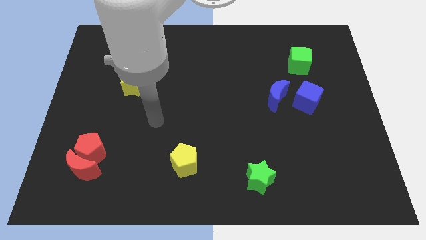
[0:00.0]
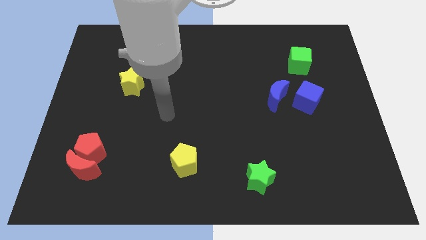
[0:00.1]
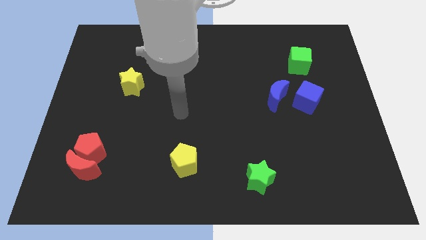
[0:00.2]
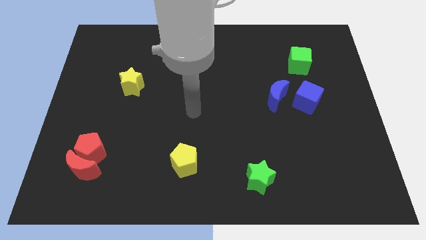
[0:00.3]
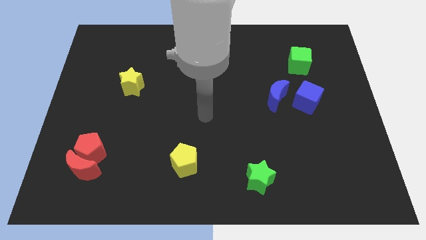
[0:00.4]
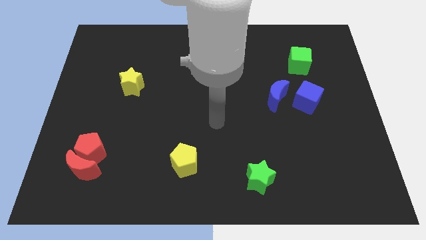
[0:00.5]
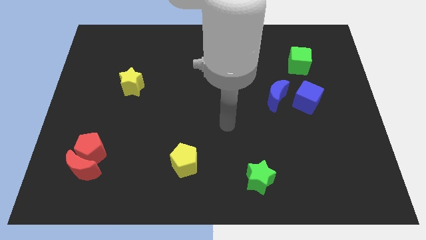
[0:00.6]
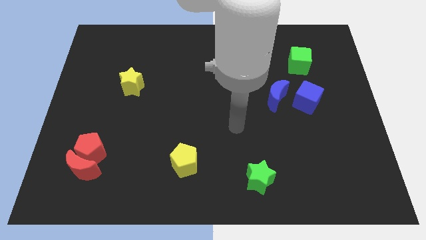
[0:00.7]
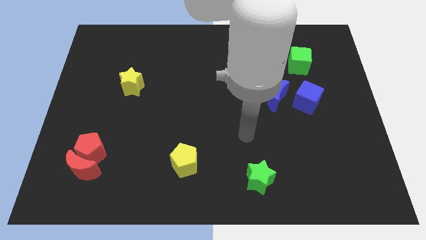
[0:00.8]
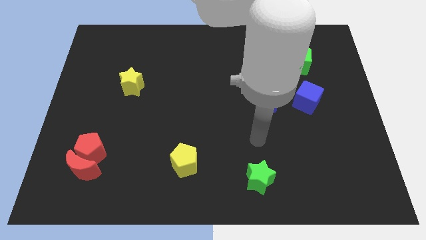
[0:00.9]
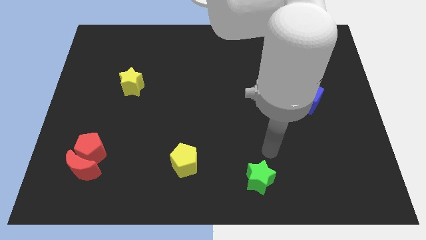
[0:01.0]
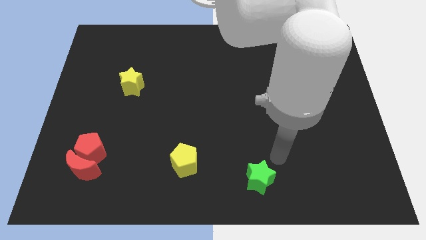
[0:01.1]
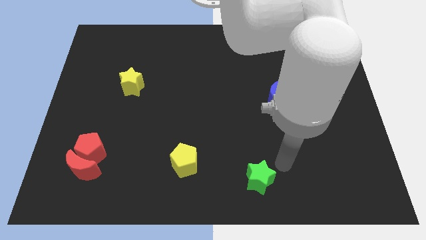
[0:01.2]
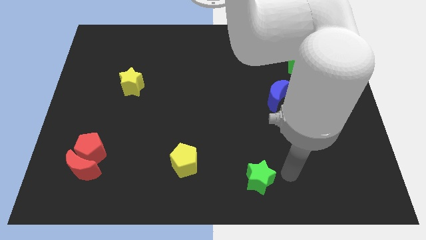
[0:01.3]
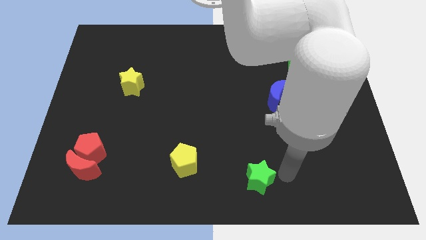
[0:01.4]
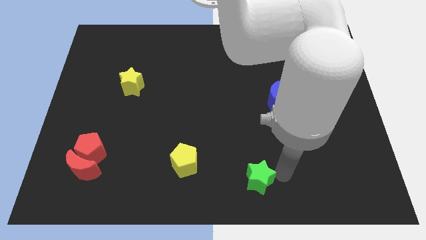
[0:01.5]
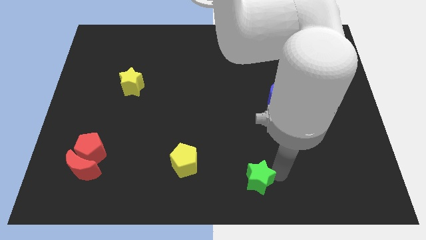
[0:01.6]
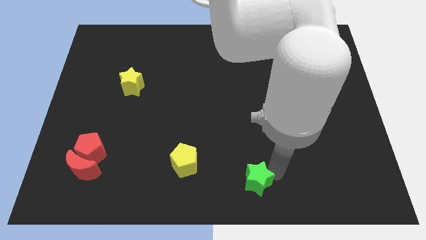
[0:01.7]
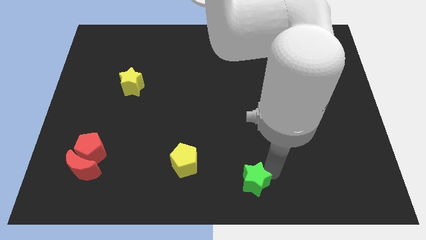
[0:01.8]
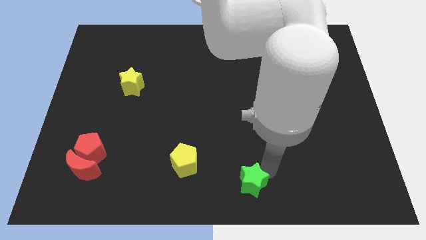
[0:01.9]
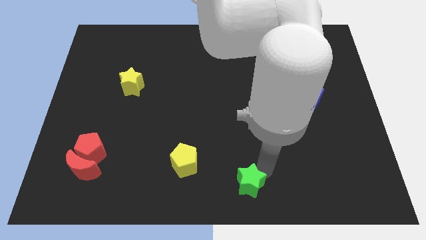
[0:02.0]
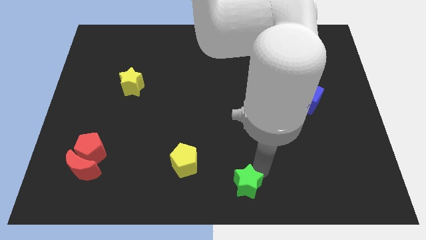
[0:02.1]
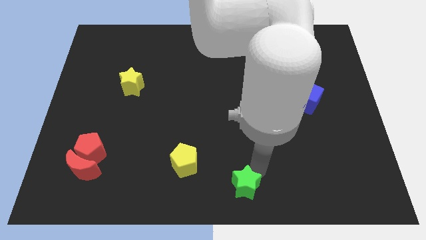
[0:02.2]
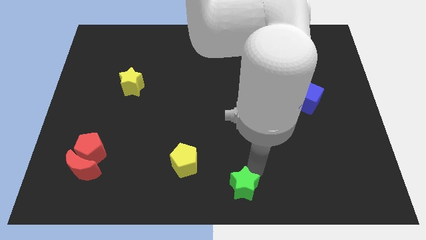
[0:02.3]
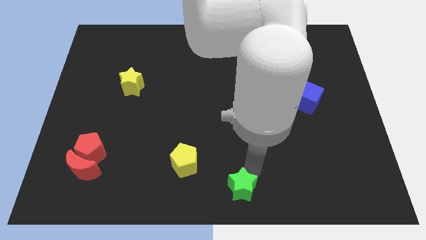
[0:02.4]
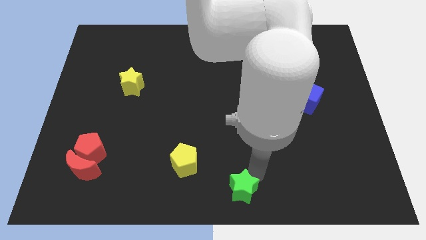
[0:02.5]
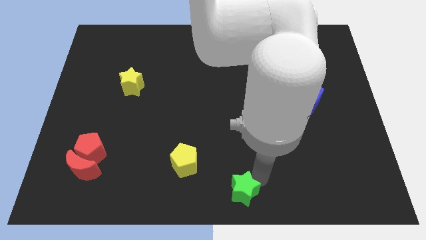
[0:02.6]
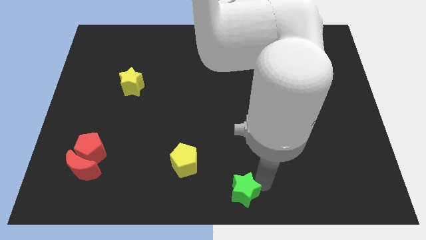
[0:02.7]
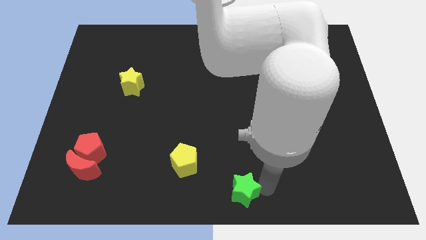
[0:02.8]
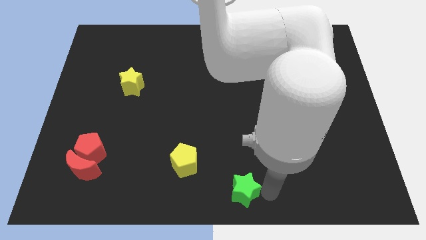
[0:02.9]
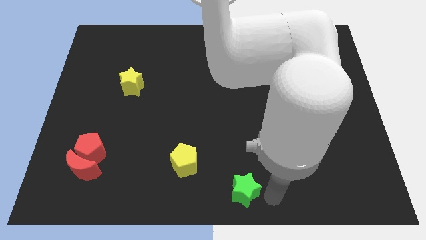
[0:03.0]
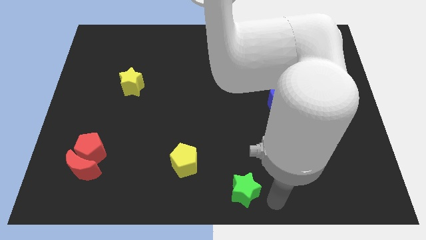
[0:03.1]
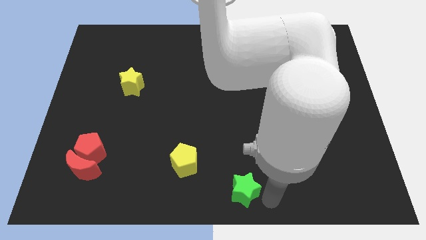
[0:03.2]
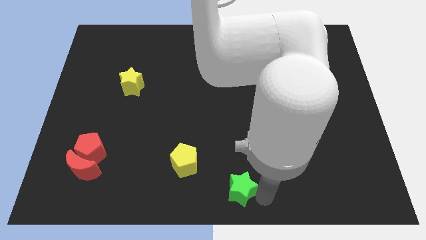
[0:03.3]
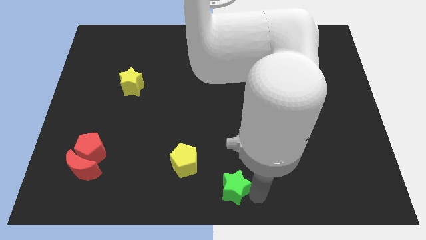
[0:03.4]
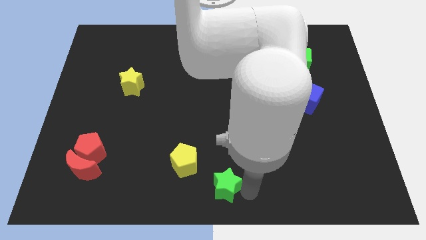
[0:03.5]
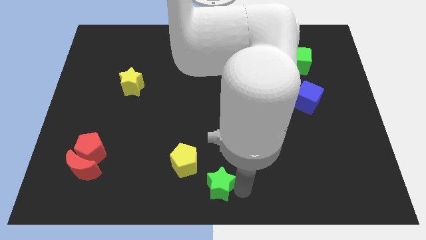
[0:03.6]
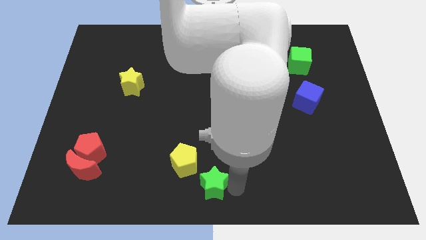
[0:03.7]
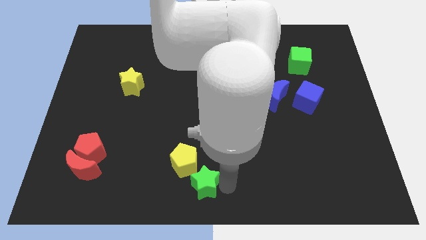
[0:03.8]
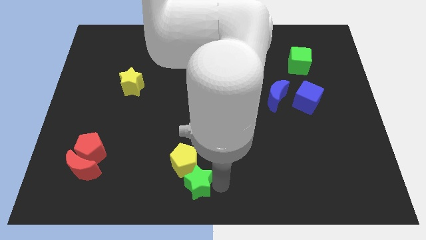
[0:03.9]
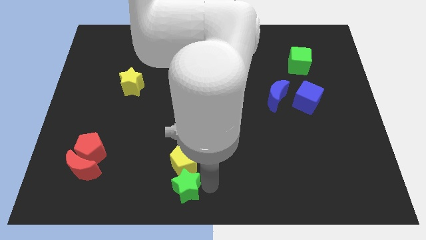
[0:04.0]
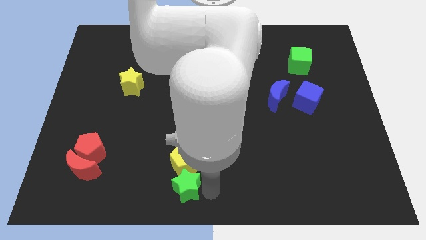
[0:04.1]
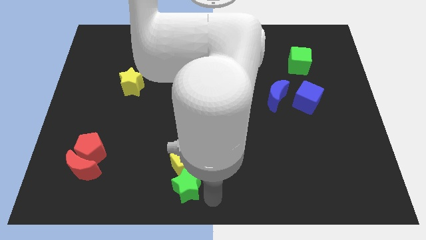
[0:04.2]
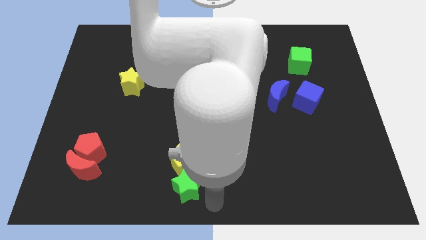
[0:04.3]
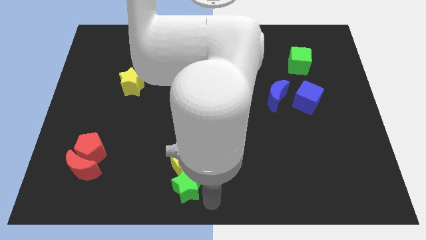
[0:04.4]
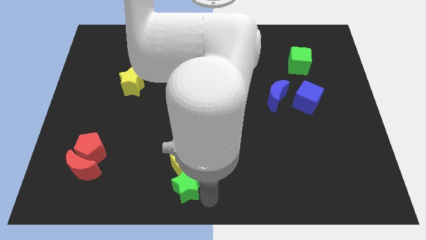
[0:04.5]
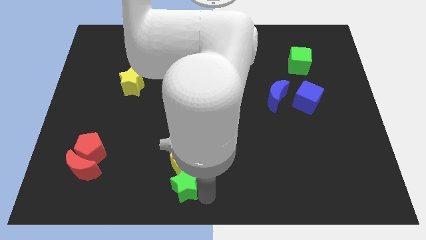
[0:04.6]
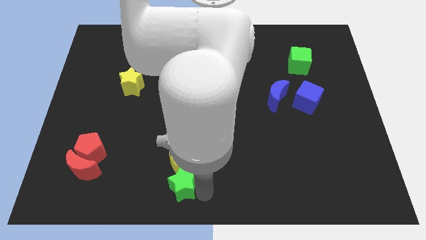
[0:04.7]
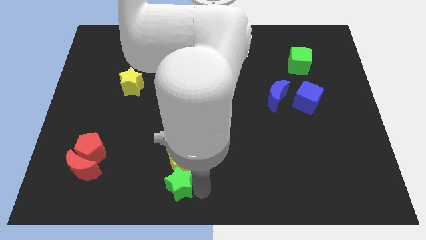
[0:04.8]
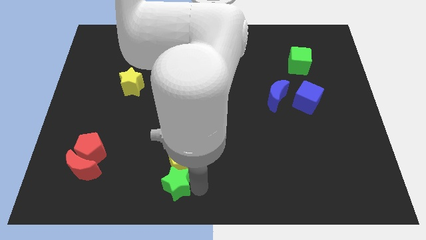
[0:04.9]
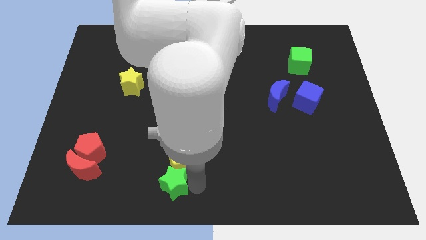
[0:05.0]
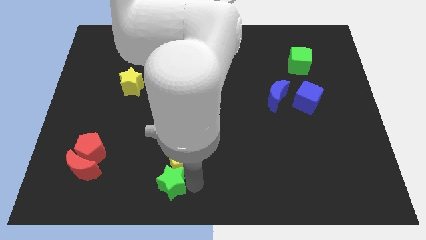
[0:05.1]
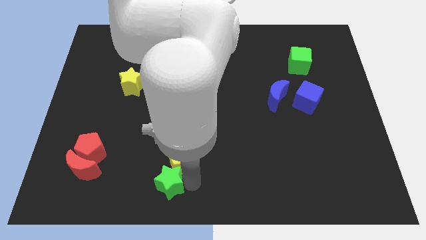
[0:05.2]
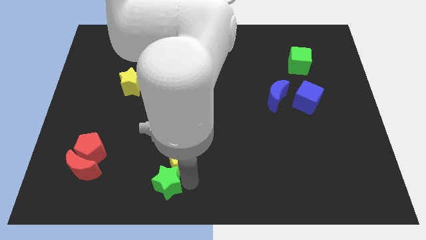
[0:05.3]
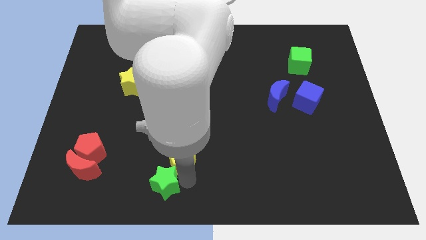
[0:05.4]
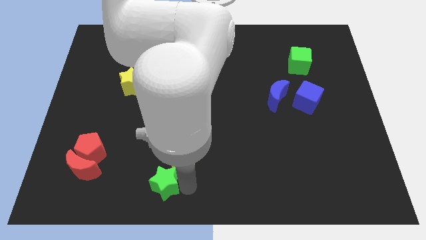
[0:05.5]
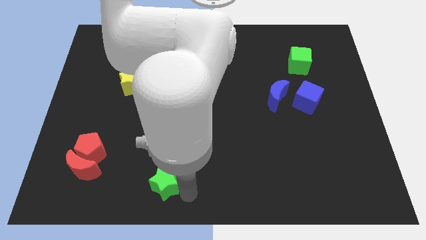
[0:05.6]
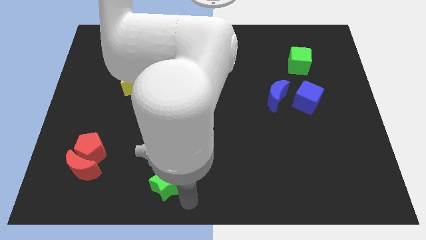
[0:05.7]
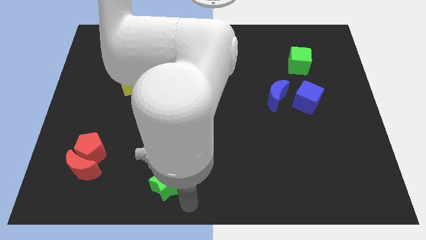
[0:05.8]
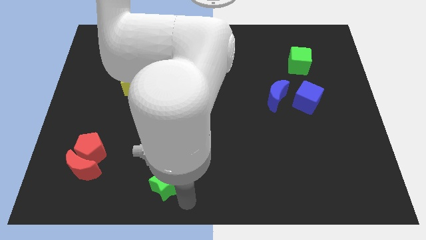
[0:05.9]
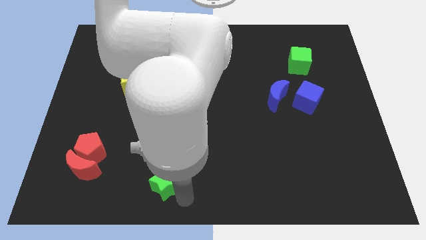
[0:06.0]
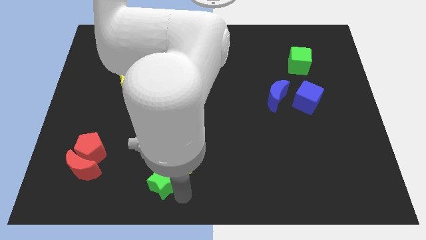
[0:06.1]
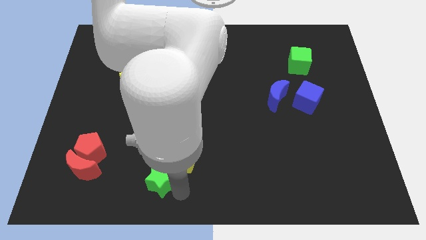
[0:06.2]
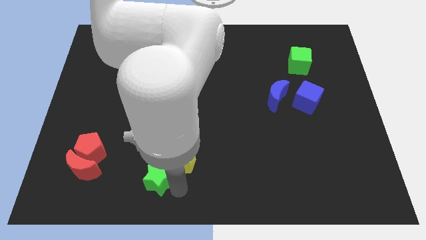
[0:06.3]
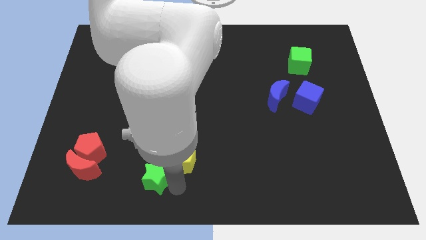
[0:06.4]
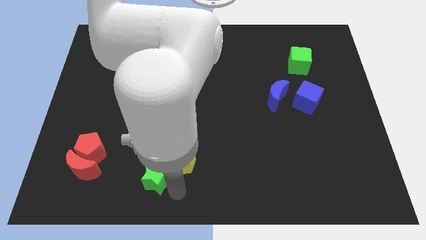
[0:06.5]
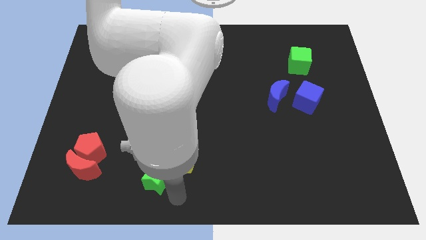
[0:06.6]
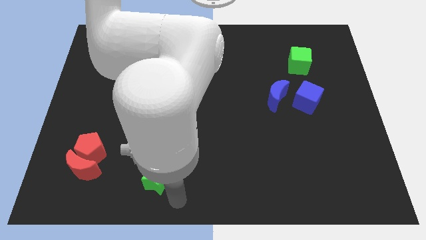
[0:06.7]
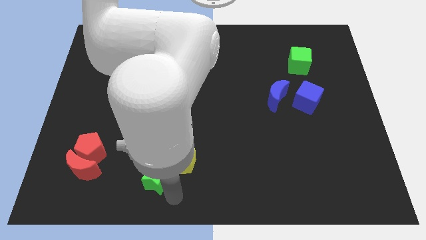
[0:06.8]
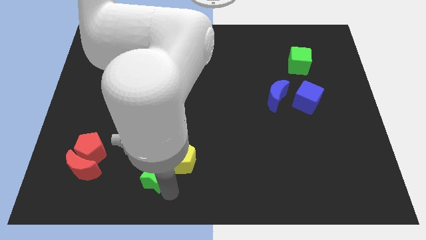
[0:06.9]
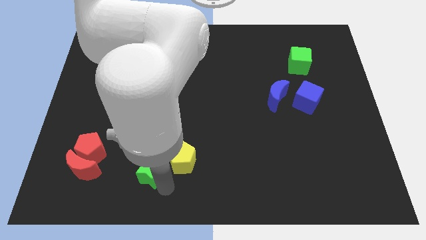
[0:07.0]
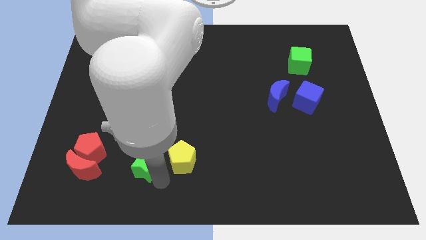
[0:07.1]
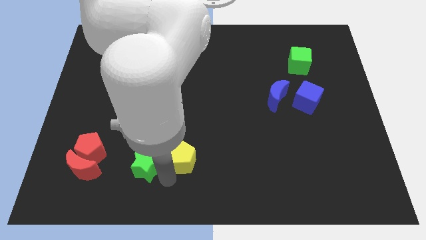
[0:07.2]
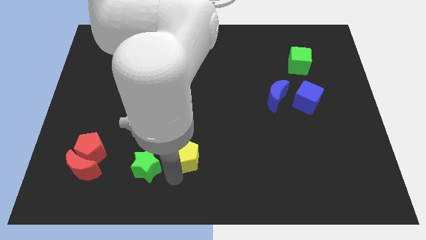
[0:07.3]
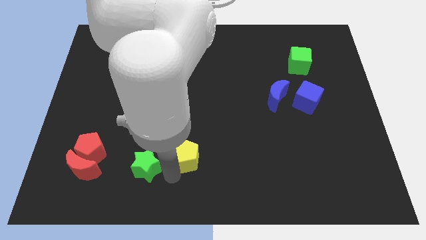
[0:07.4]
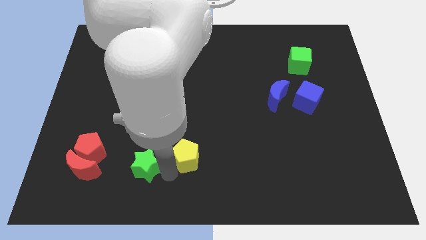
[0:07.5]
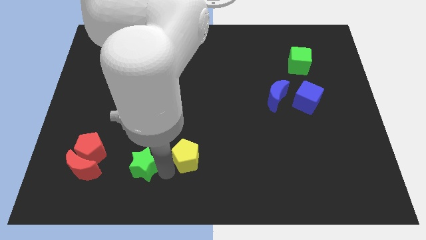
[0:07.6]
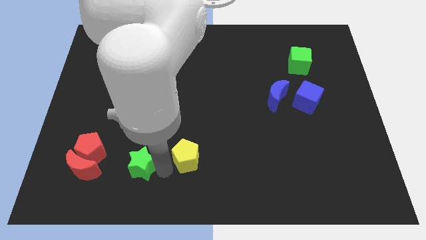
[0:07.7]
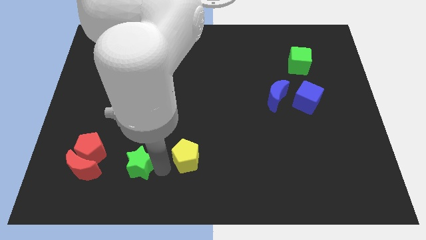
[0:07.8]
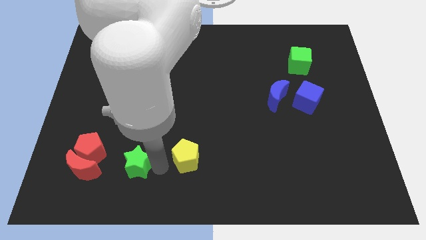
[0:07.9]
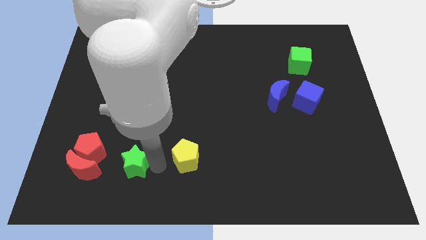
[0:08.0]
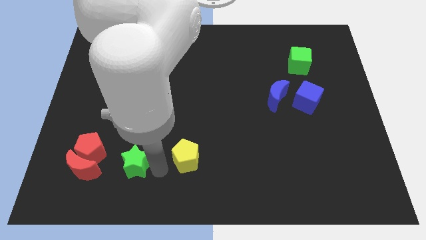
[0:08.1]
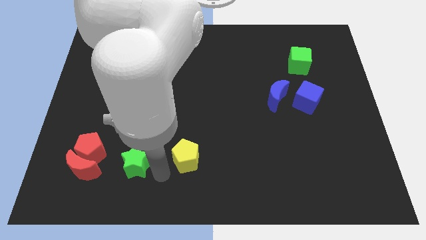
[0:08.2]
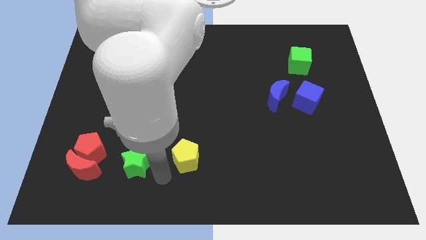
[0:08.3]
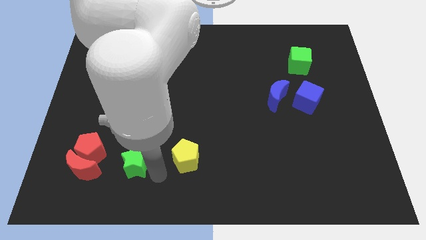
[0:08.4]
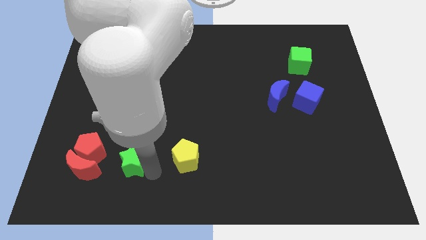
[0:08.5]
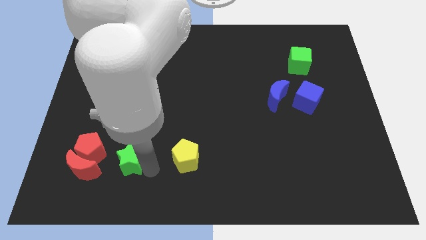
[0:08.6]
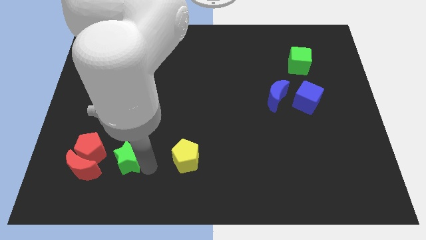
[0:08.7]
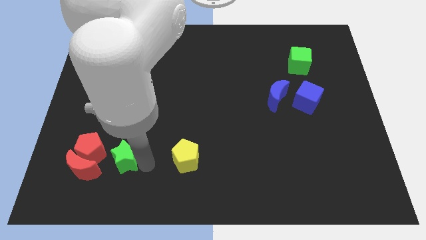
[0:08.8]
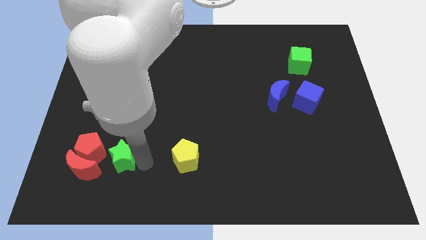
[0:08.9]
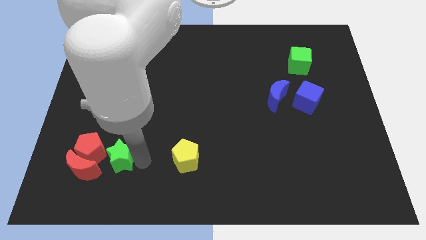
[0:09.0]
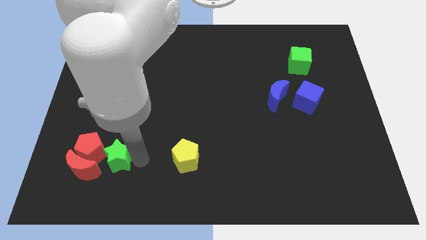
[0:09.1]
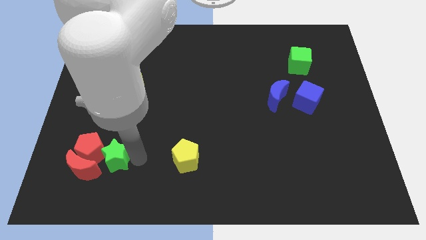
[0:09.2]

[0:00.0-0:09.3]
push the green star towards the red pentagon
